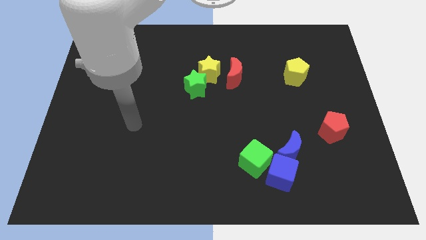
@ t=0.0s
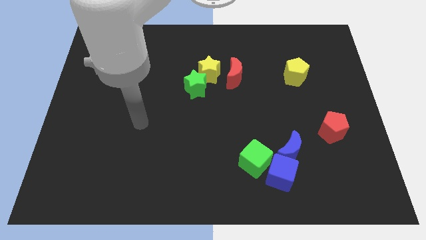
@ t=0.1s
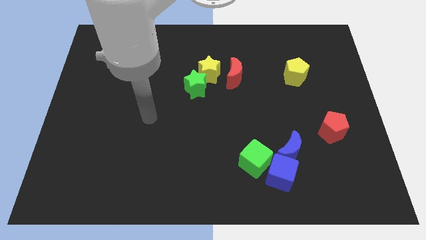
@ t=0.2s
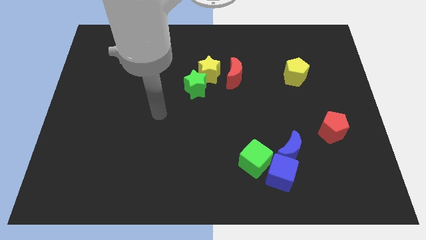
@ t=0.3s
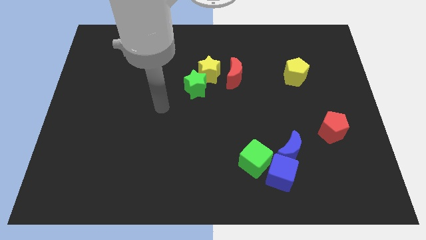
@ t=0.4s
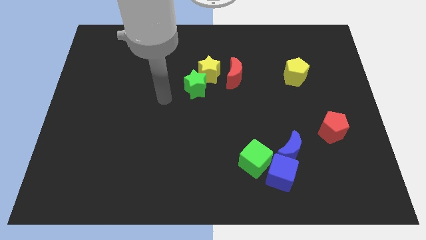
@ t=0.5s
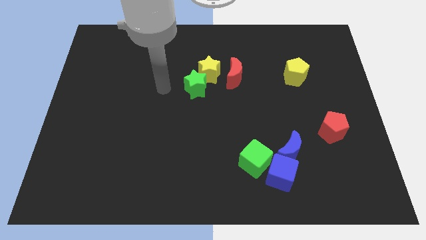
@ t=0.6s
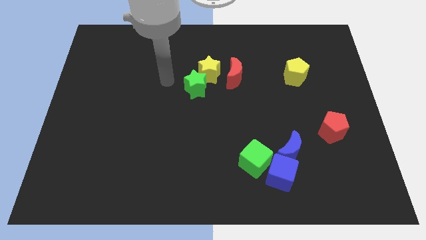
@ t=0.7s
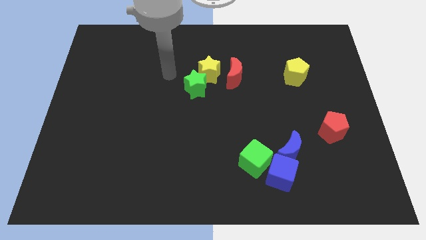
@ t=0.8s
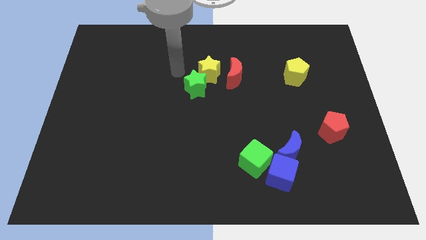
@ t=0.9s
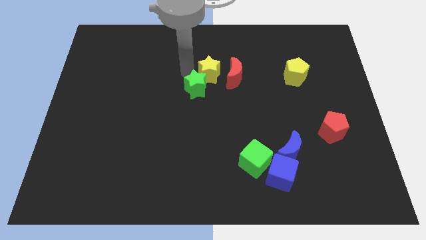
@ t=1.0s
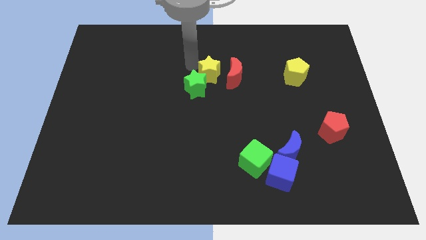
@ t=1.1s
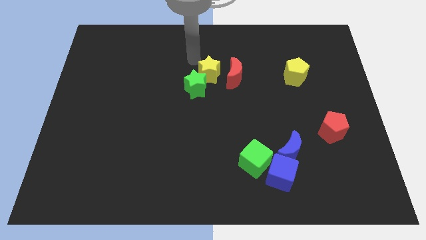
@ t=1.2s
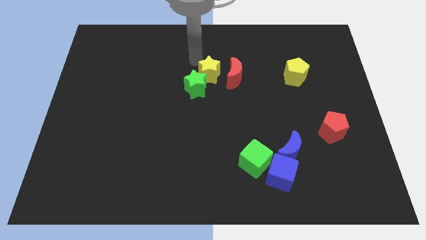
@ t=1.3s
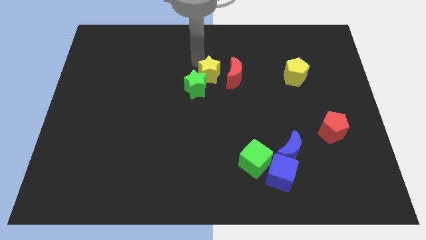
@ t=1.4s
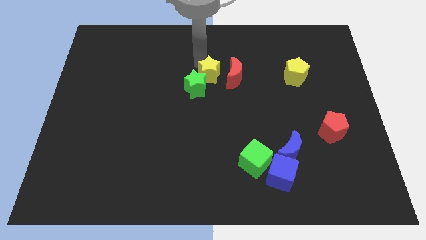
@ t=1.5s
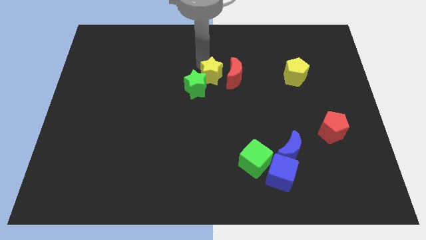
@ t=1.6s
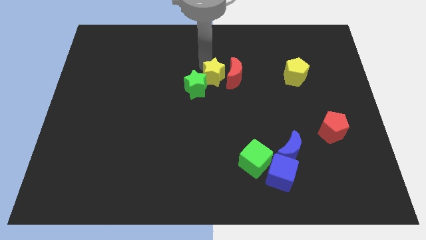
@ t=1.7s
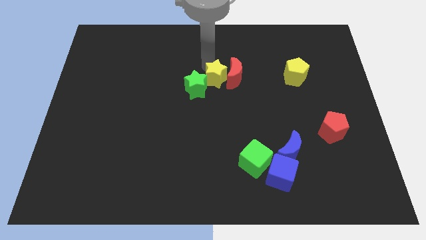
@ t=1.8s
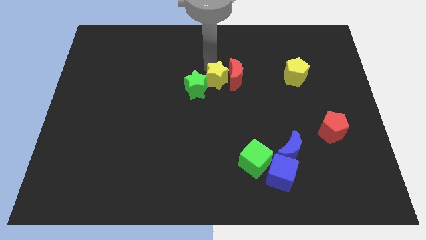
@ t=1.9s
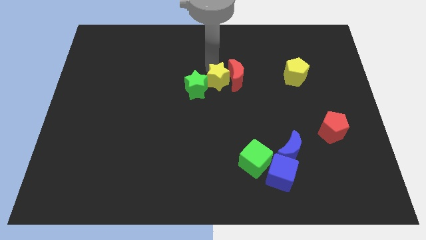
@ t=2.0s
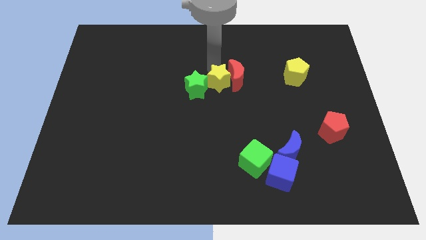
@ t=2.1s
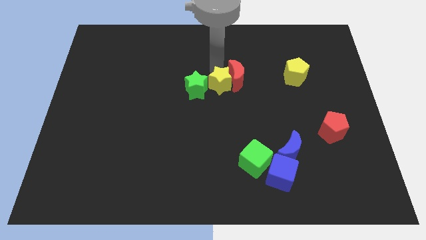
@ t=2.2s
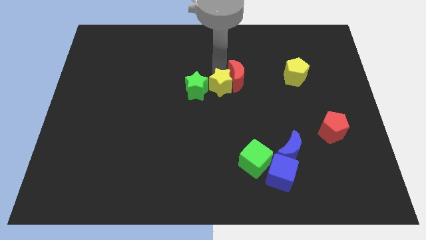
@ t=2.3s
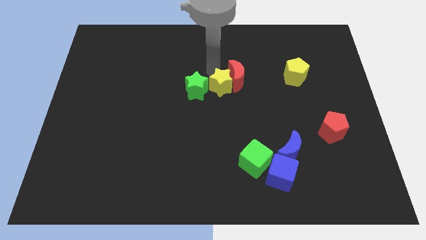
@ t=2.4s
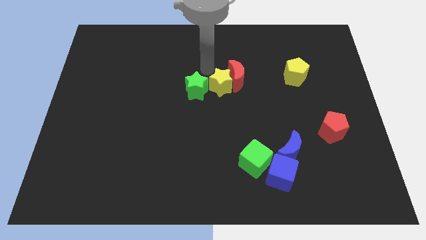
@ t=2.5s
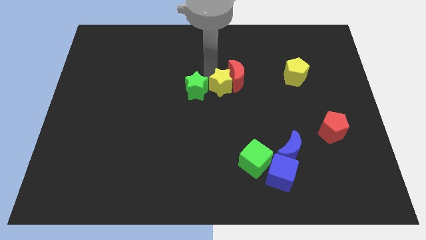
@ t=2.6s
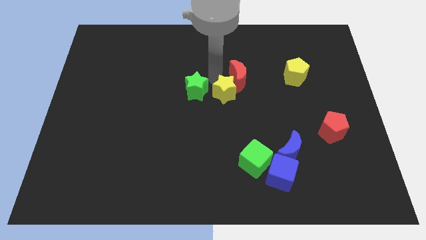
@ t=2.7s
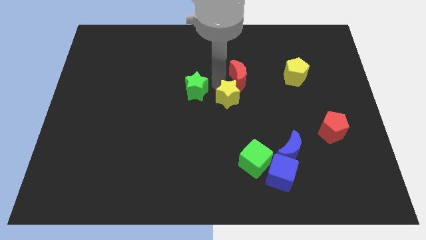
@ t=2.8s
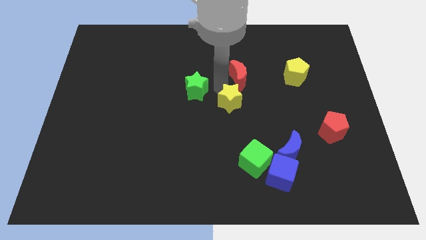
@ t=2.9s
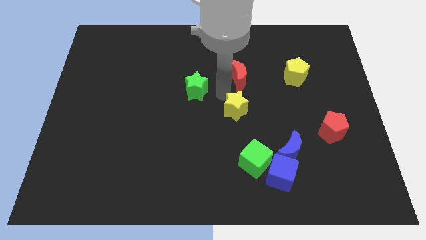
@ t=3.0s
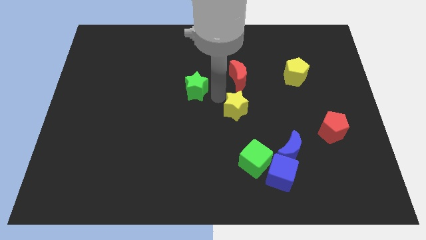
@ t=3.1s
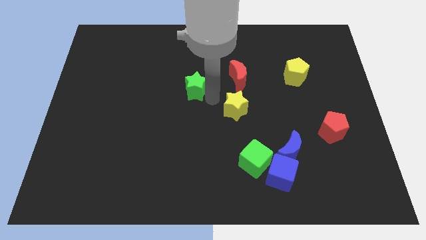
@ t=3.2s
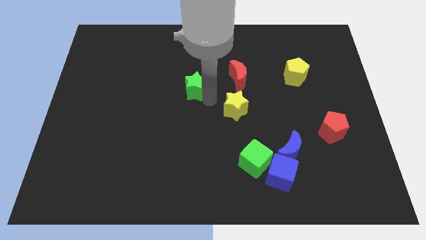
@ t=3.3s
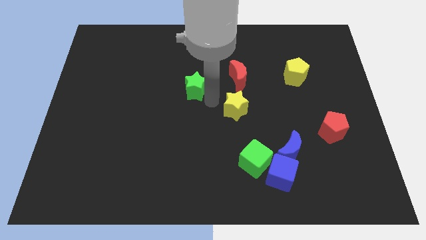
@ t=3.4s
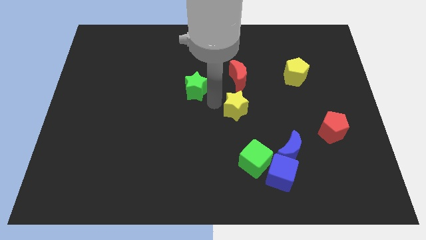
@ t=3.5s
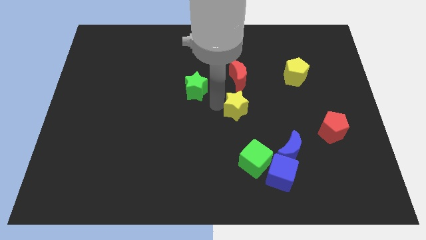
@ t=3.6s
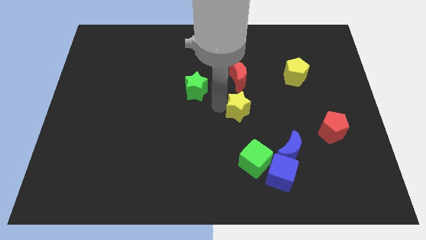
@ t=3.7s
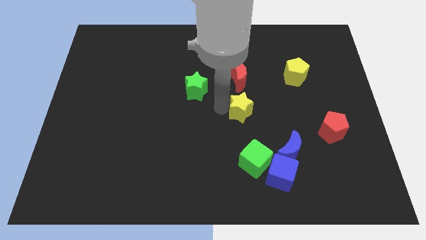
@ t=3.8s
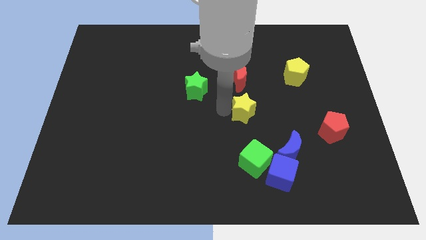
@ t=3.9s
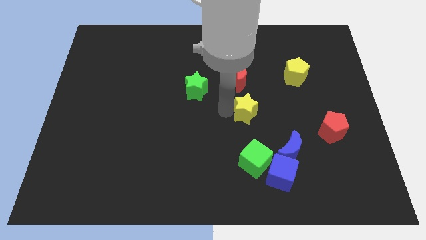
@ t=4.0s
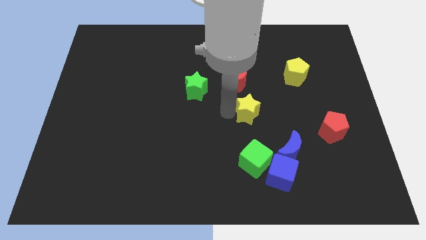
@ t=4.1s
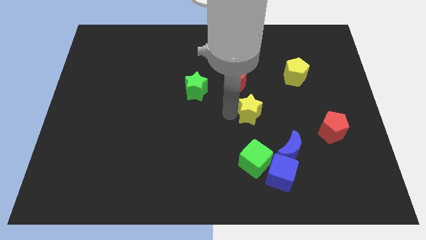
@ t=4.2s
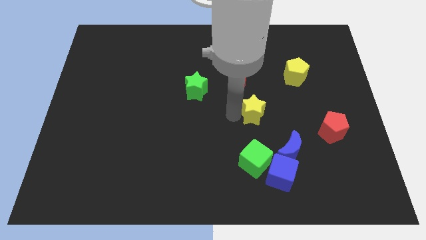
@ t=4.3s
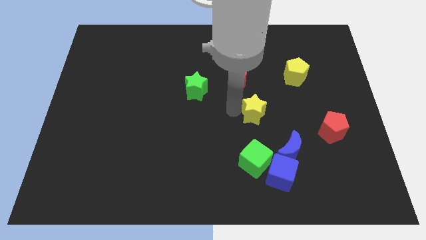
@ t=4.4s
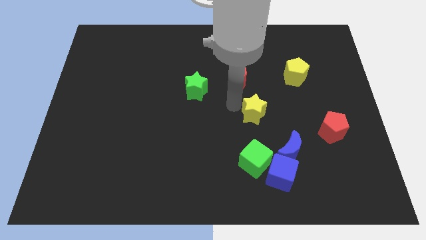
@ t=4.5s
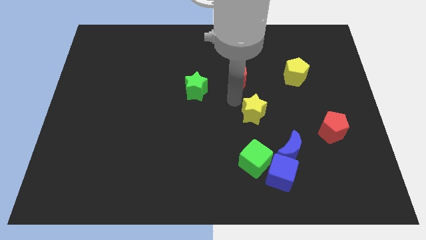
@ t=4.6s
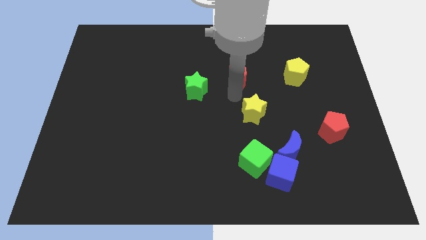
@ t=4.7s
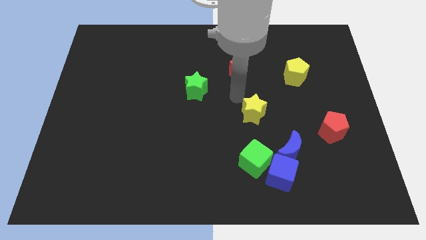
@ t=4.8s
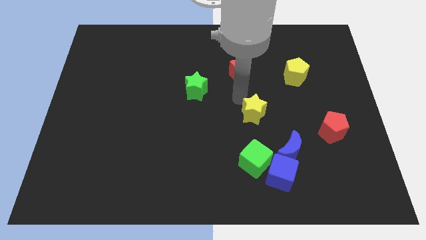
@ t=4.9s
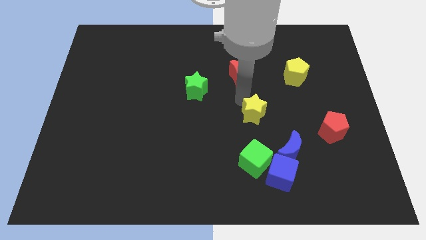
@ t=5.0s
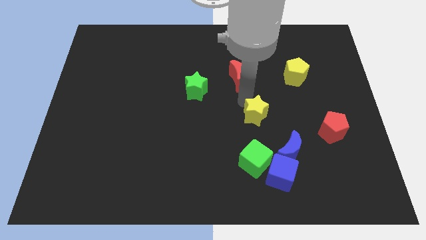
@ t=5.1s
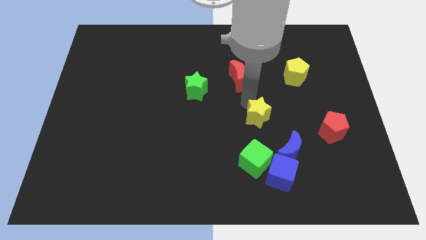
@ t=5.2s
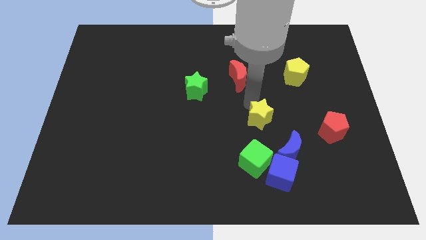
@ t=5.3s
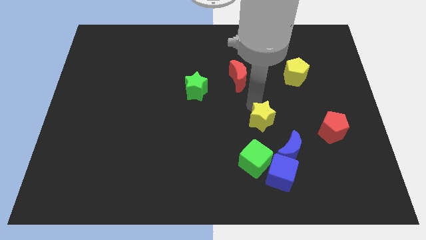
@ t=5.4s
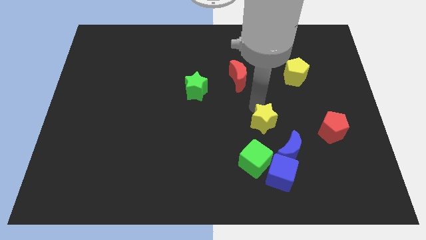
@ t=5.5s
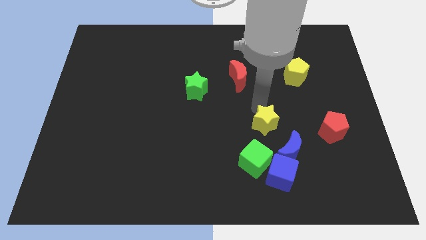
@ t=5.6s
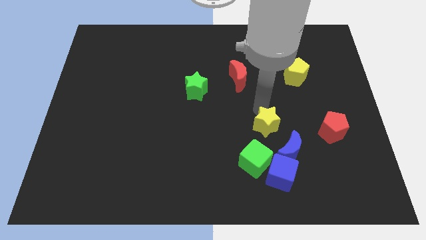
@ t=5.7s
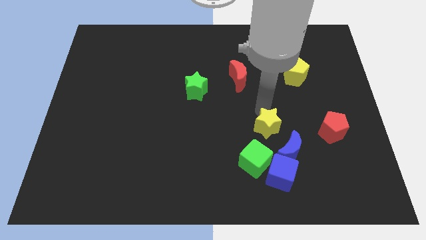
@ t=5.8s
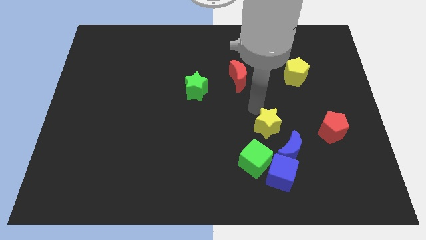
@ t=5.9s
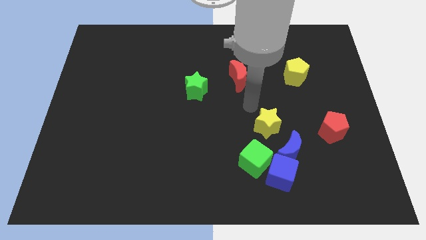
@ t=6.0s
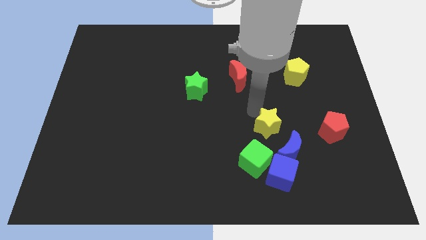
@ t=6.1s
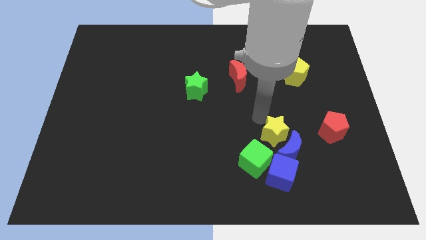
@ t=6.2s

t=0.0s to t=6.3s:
slide the yellow star close to the blue moon

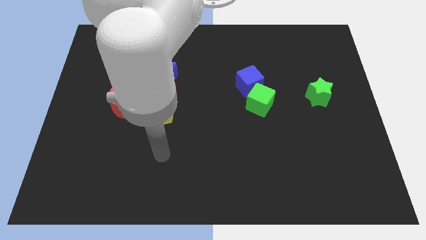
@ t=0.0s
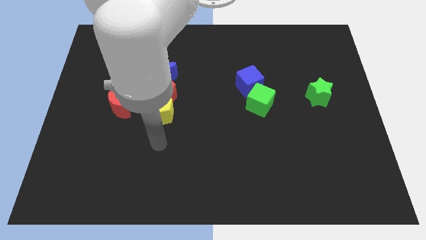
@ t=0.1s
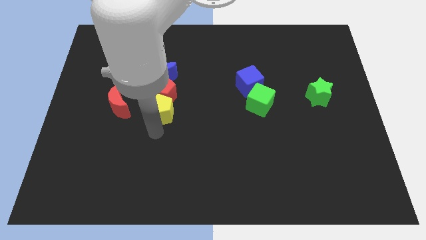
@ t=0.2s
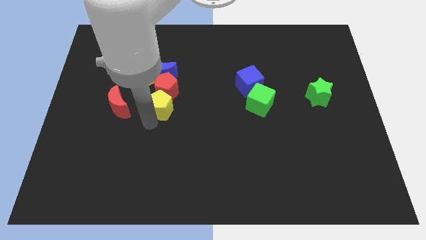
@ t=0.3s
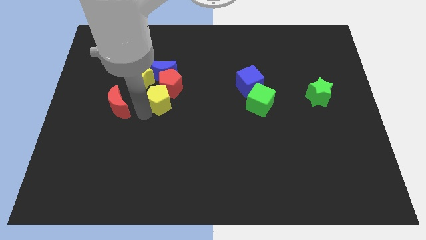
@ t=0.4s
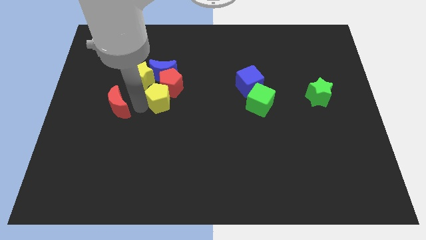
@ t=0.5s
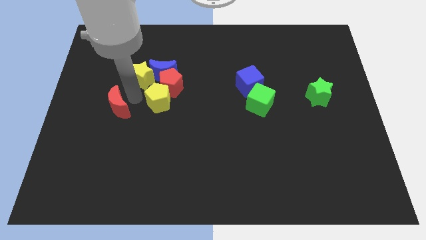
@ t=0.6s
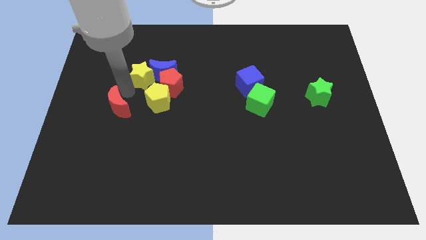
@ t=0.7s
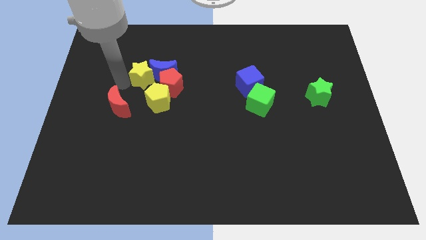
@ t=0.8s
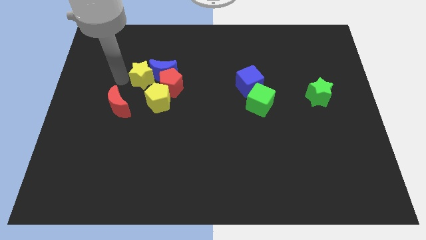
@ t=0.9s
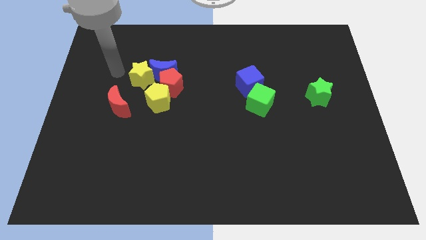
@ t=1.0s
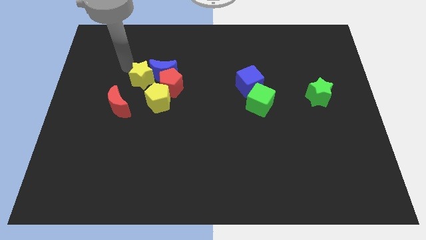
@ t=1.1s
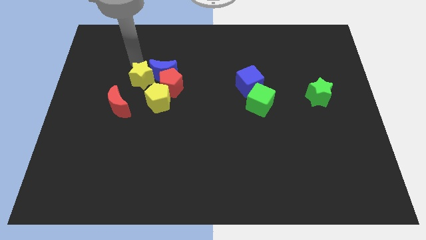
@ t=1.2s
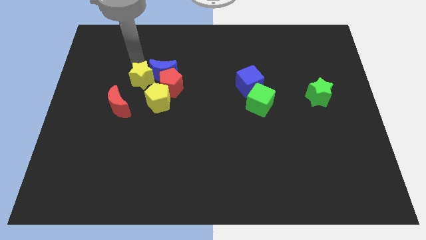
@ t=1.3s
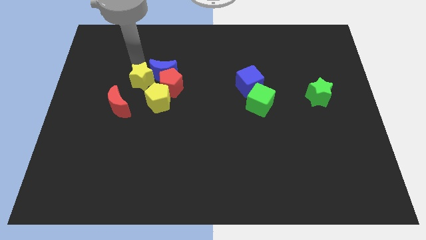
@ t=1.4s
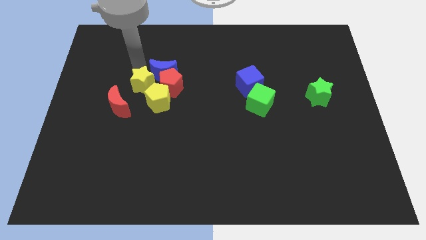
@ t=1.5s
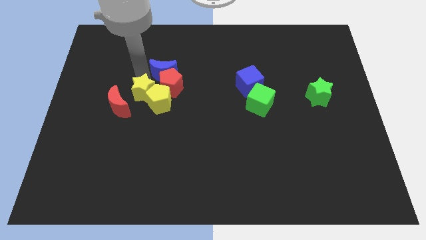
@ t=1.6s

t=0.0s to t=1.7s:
slide the yellow star to the yellow pentagon

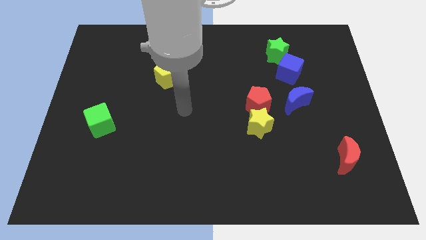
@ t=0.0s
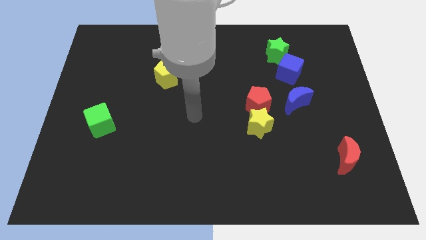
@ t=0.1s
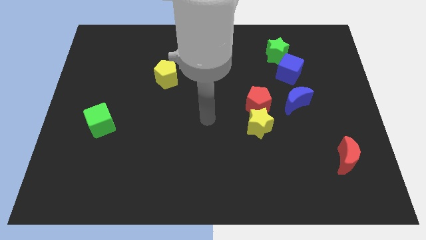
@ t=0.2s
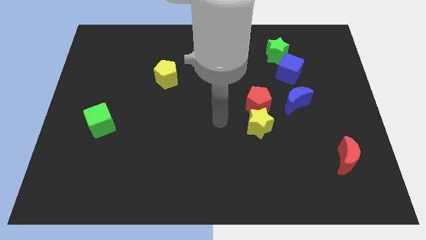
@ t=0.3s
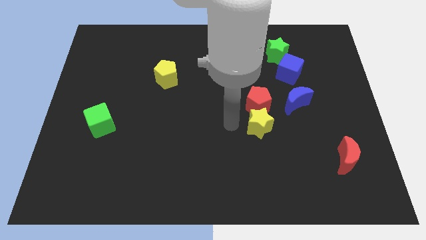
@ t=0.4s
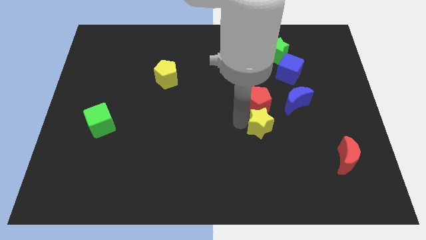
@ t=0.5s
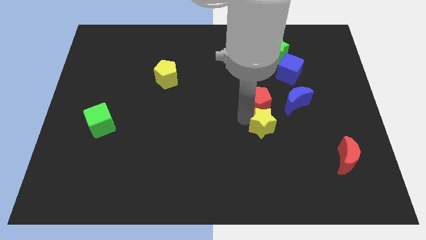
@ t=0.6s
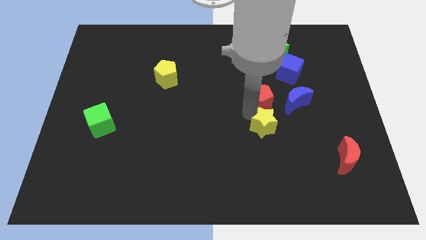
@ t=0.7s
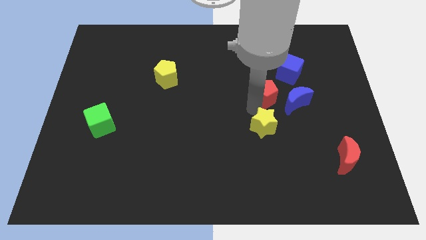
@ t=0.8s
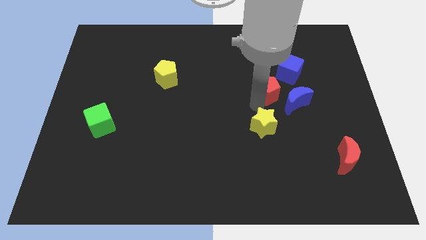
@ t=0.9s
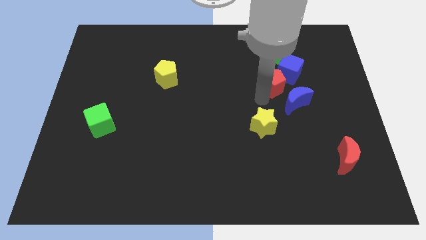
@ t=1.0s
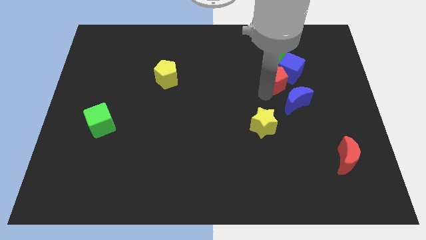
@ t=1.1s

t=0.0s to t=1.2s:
put the red pentagon close to the blue cube
